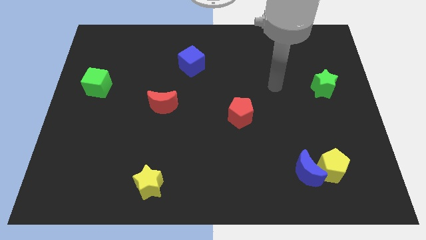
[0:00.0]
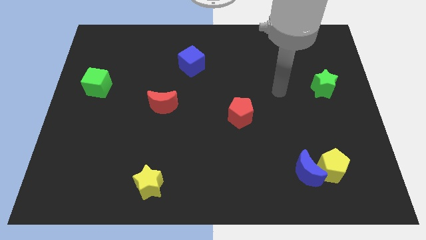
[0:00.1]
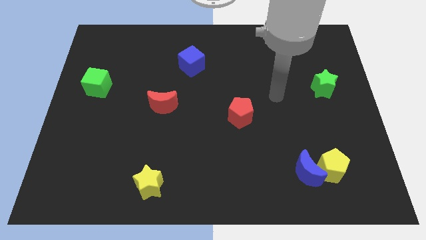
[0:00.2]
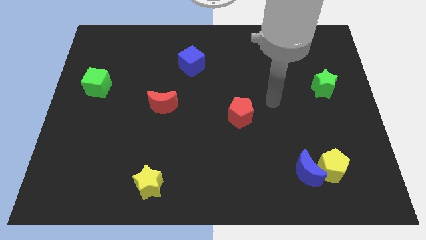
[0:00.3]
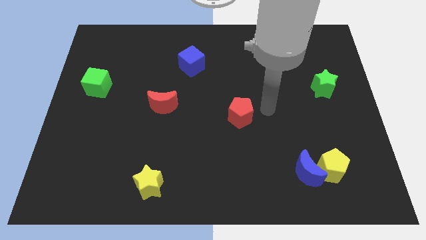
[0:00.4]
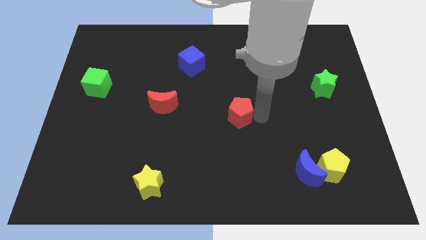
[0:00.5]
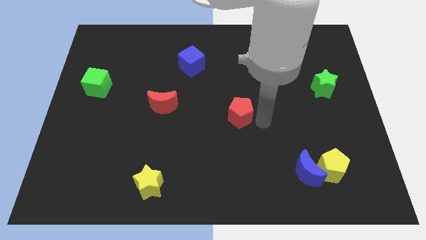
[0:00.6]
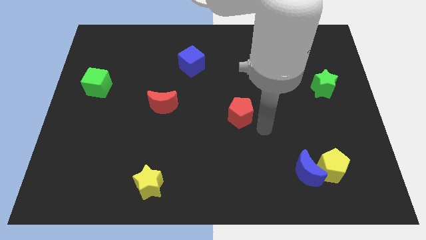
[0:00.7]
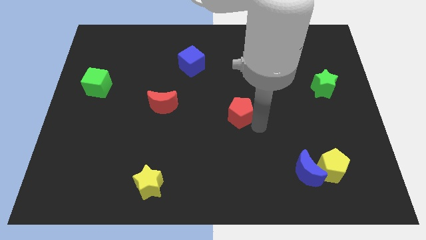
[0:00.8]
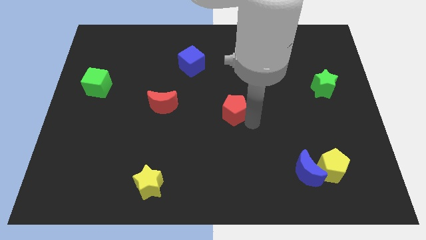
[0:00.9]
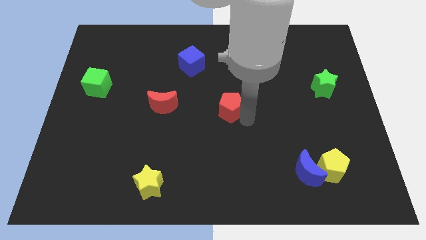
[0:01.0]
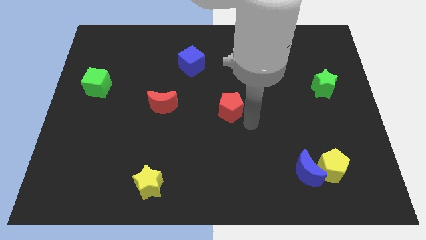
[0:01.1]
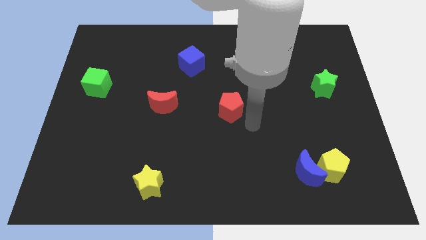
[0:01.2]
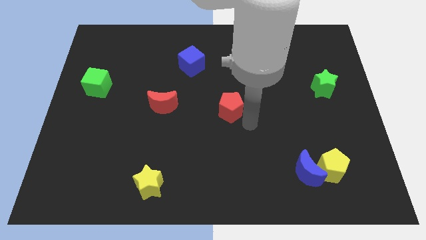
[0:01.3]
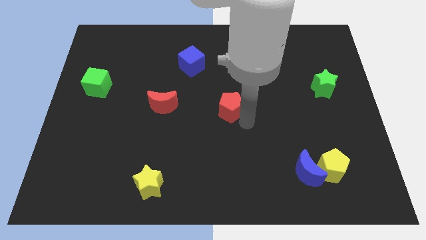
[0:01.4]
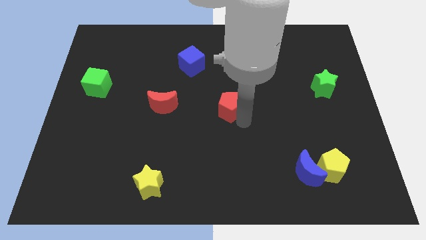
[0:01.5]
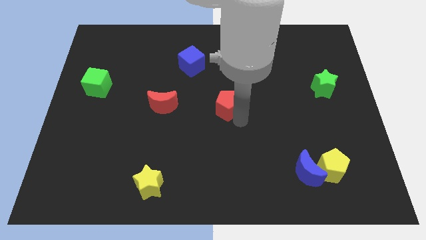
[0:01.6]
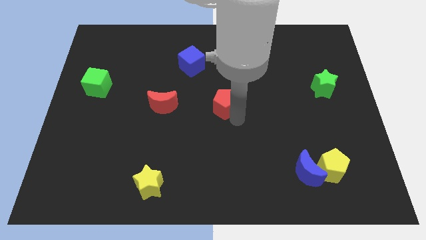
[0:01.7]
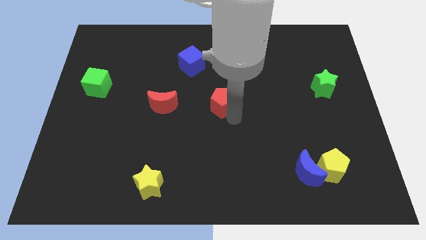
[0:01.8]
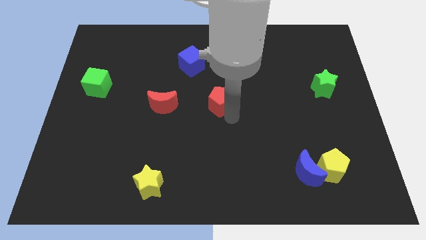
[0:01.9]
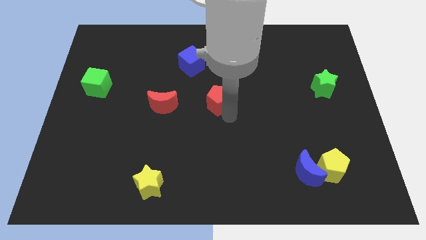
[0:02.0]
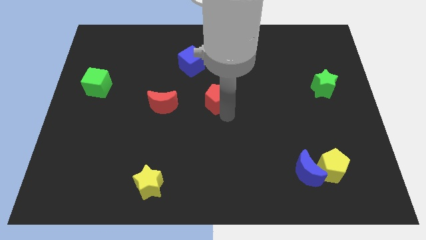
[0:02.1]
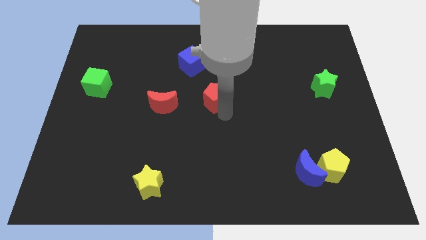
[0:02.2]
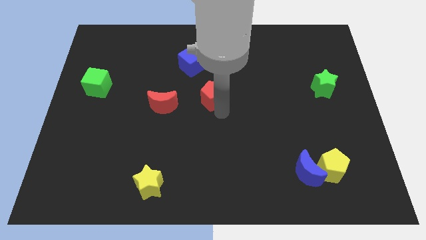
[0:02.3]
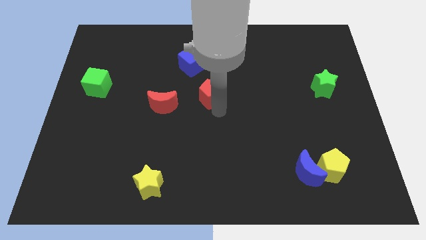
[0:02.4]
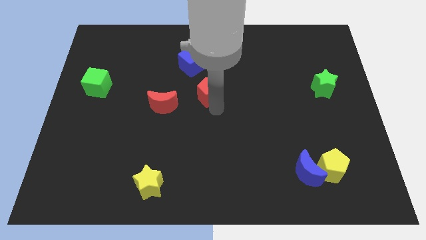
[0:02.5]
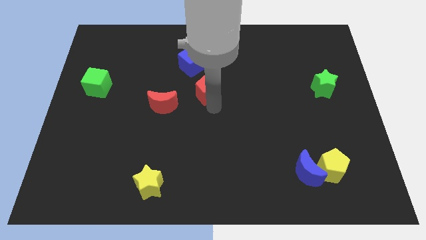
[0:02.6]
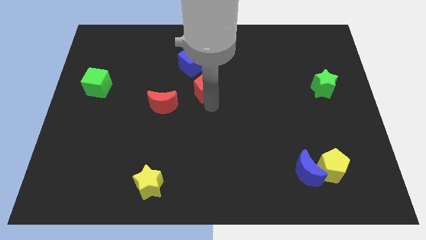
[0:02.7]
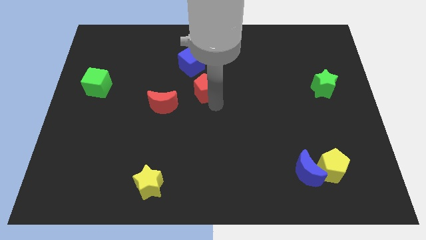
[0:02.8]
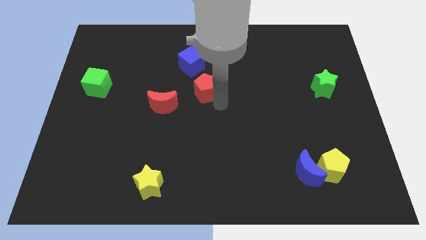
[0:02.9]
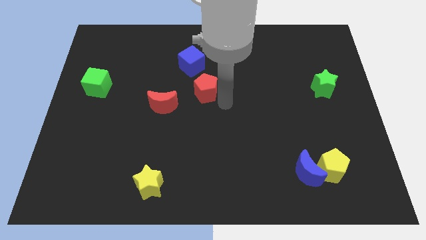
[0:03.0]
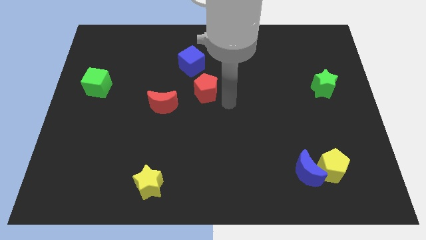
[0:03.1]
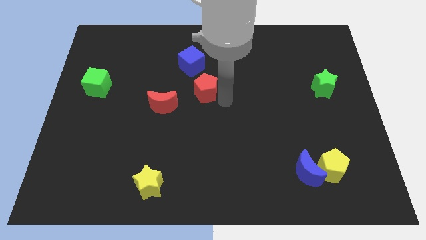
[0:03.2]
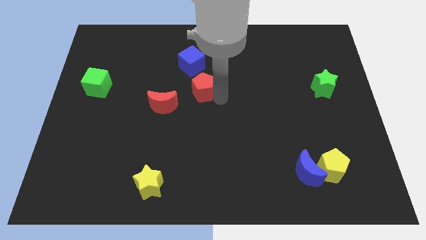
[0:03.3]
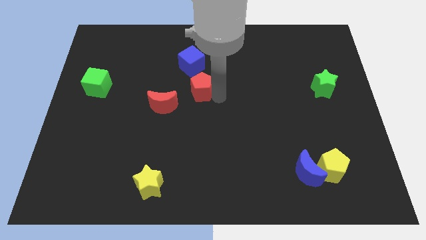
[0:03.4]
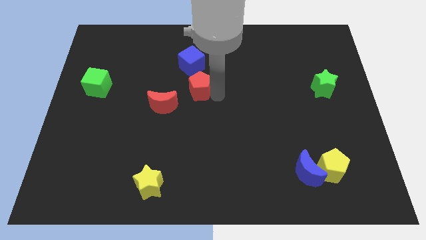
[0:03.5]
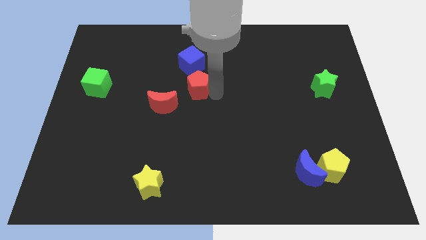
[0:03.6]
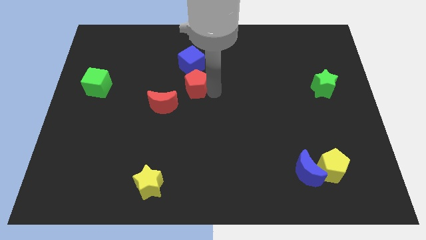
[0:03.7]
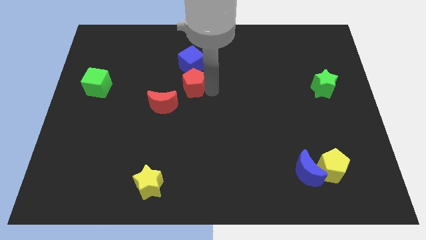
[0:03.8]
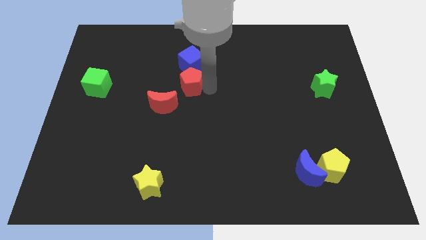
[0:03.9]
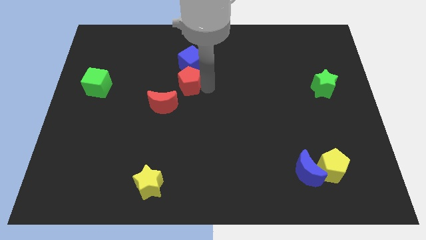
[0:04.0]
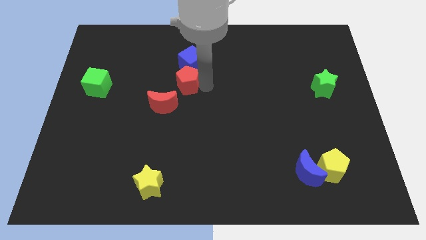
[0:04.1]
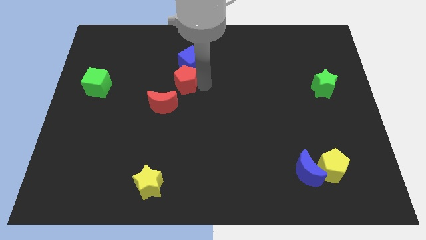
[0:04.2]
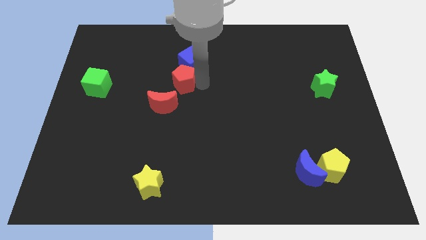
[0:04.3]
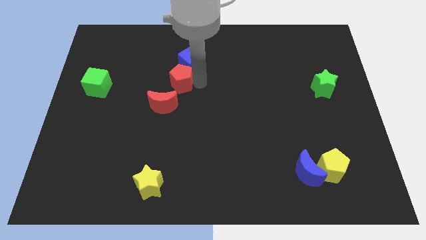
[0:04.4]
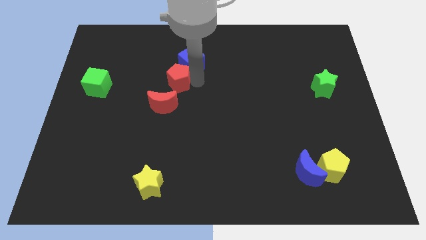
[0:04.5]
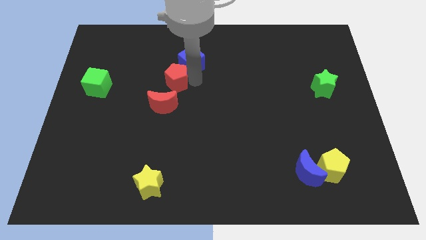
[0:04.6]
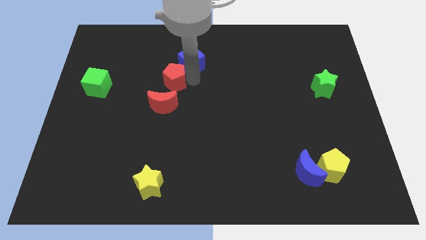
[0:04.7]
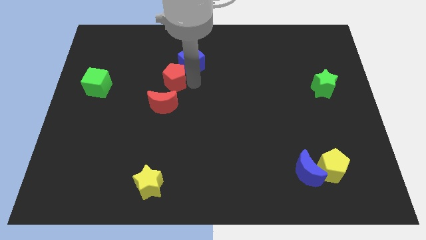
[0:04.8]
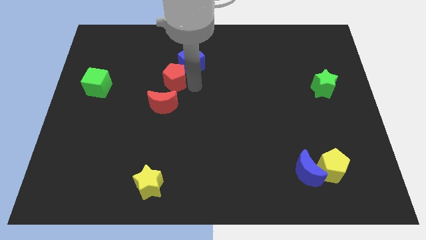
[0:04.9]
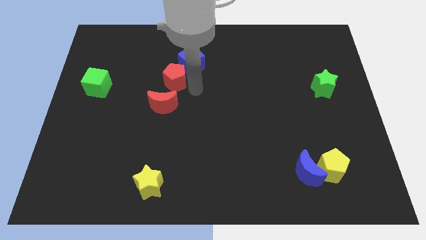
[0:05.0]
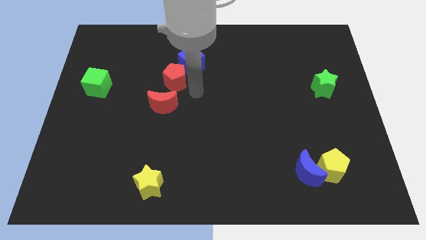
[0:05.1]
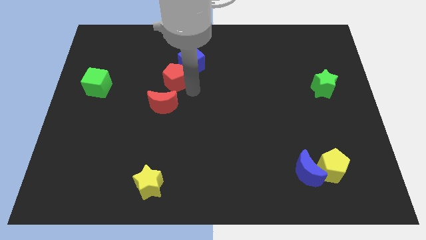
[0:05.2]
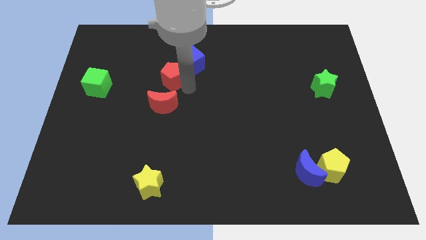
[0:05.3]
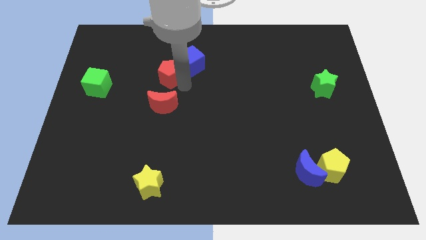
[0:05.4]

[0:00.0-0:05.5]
slide the red pentagon to the left of the blue cube

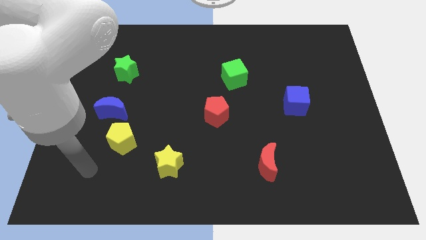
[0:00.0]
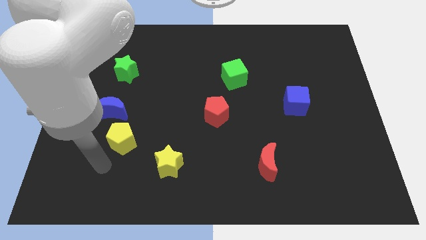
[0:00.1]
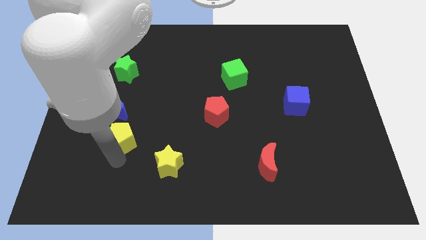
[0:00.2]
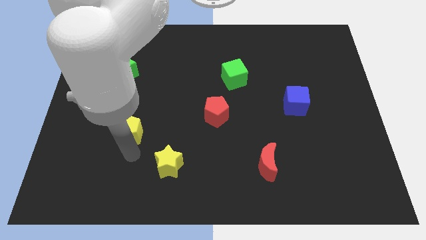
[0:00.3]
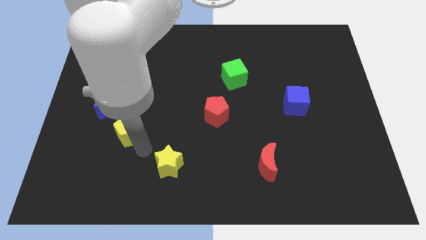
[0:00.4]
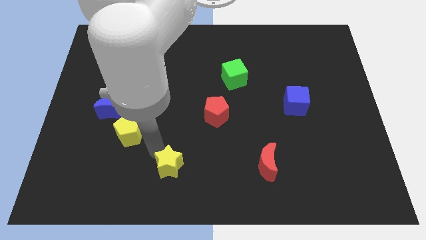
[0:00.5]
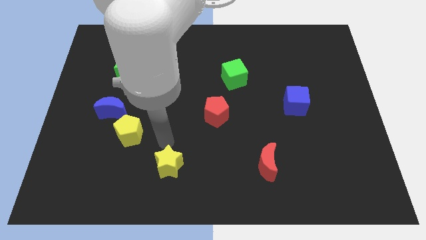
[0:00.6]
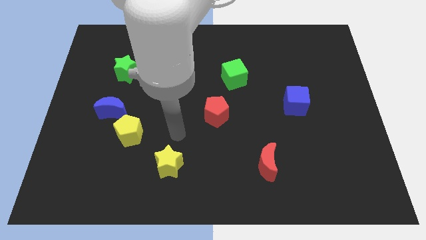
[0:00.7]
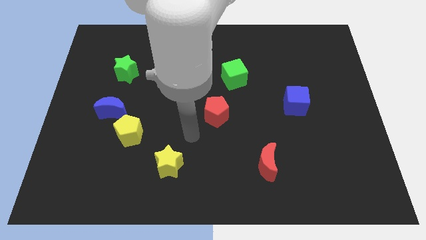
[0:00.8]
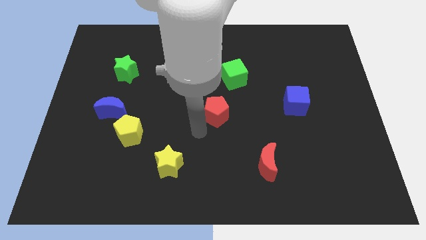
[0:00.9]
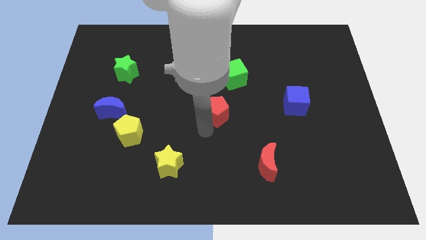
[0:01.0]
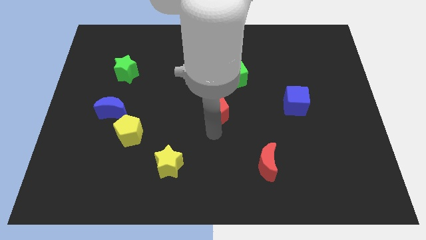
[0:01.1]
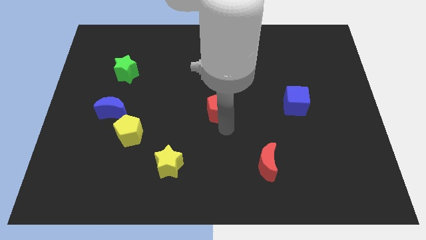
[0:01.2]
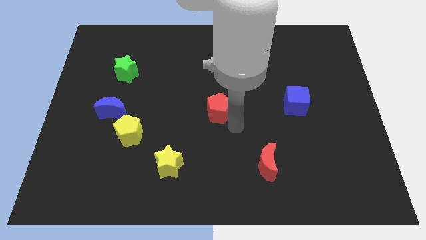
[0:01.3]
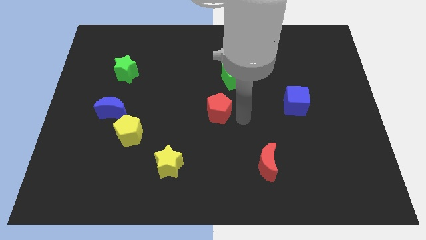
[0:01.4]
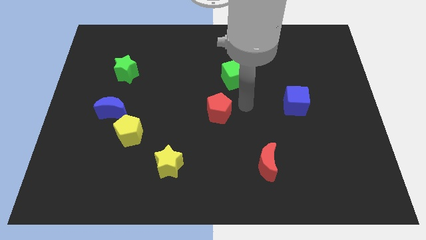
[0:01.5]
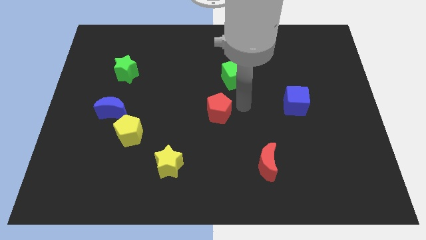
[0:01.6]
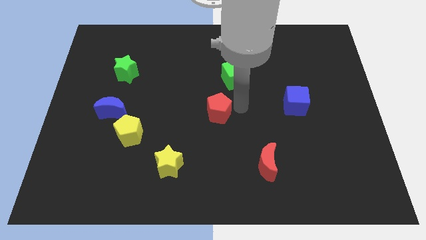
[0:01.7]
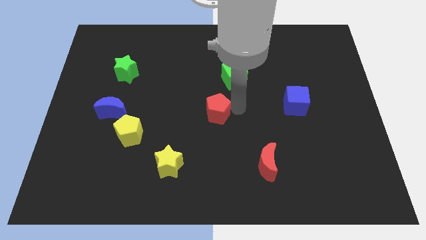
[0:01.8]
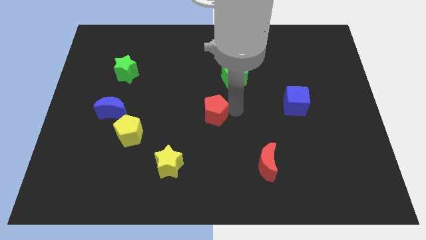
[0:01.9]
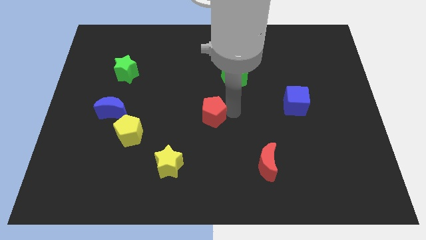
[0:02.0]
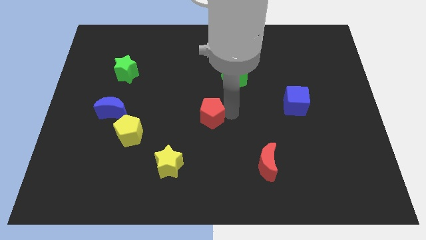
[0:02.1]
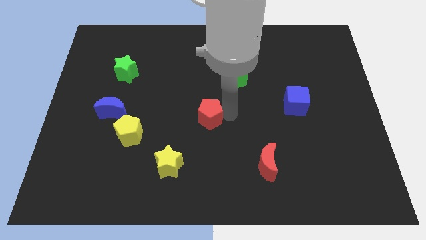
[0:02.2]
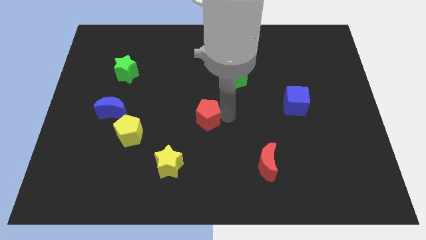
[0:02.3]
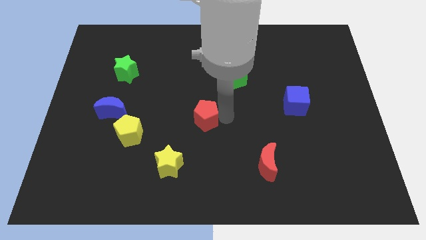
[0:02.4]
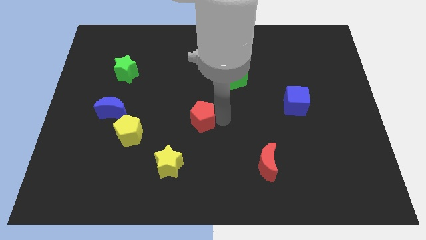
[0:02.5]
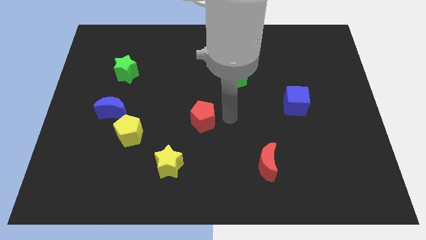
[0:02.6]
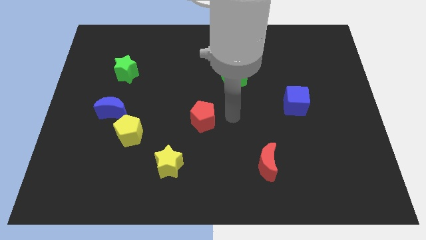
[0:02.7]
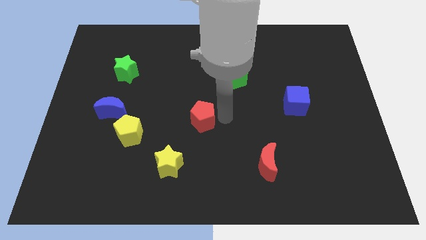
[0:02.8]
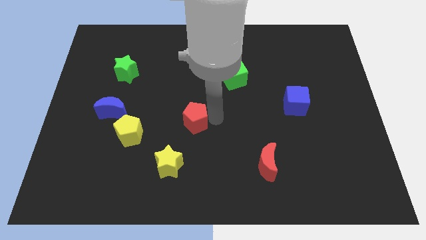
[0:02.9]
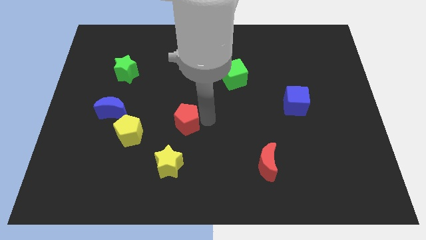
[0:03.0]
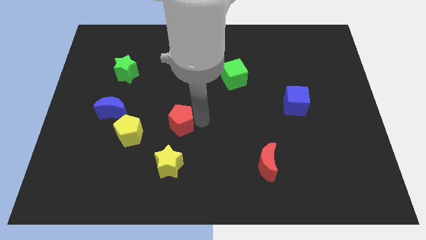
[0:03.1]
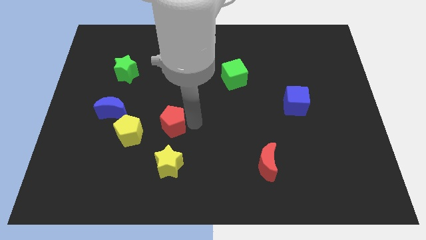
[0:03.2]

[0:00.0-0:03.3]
push the red pentagon diagonally up and to the right of the yellow pentagon
